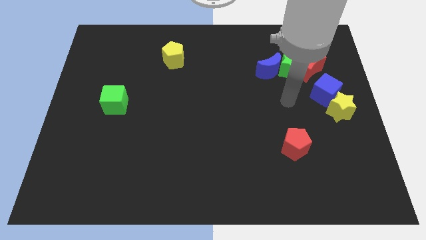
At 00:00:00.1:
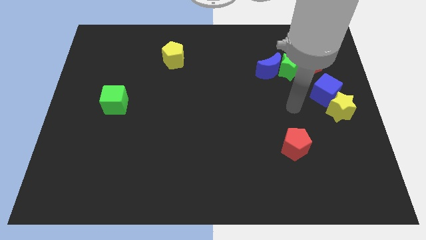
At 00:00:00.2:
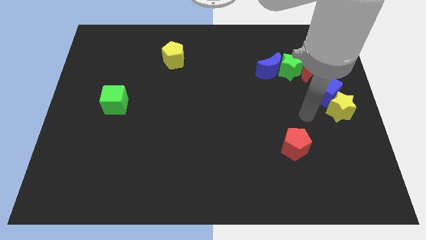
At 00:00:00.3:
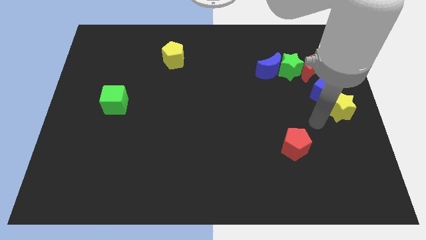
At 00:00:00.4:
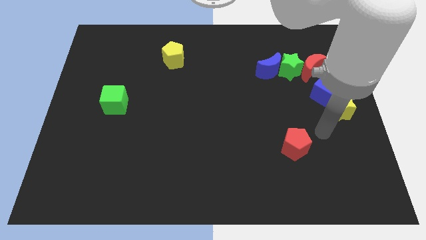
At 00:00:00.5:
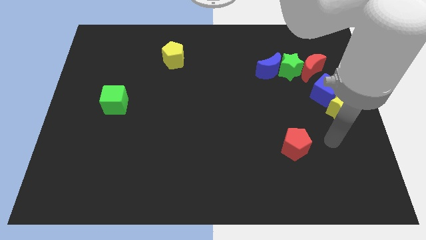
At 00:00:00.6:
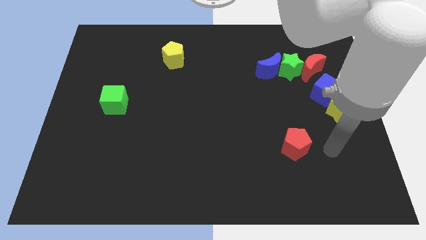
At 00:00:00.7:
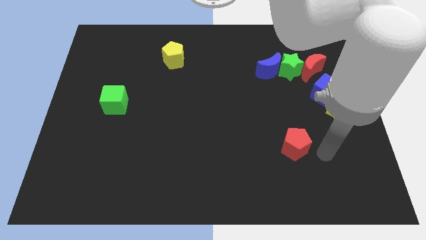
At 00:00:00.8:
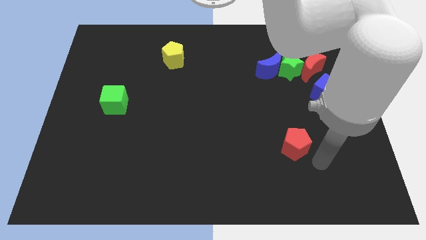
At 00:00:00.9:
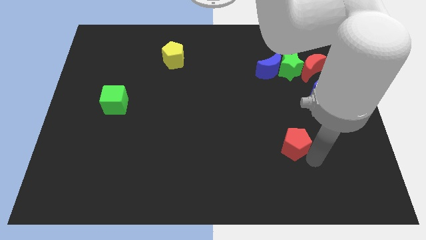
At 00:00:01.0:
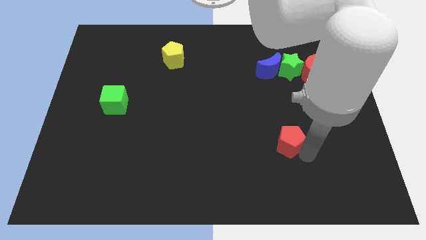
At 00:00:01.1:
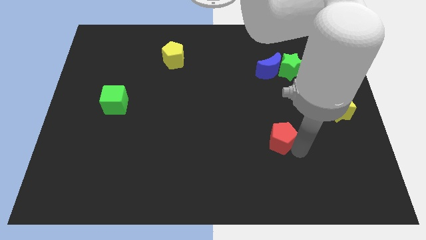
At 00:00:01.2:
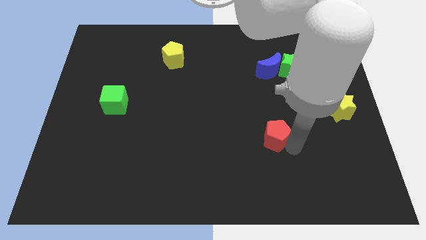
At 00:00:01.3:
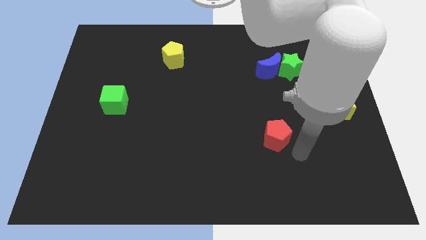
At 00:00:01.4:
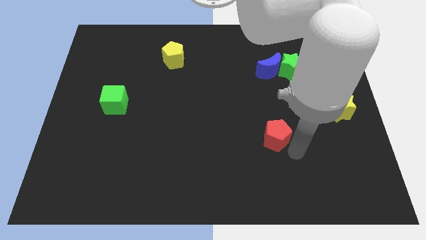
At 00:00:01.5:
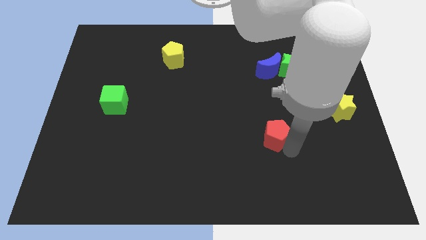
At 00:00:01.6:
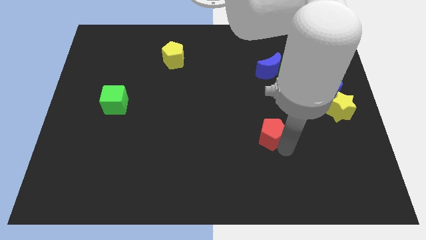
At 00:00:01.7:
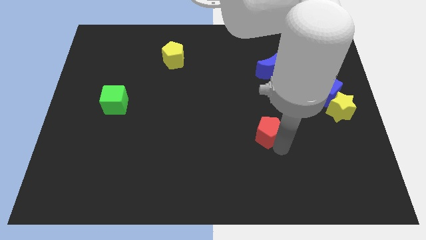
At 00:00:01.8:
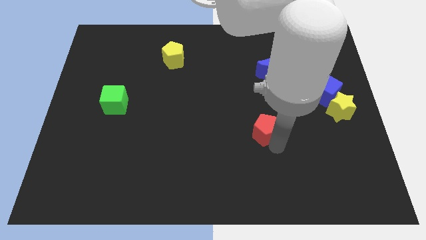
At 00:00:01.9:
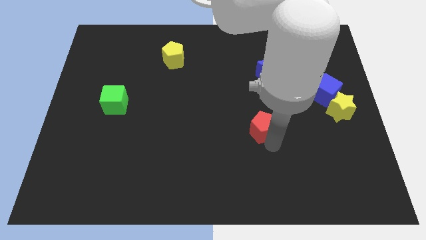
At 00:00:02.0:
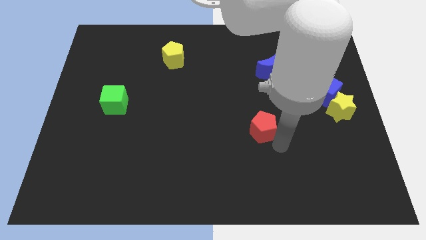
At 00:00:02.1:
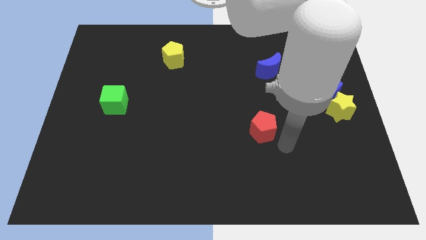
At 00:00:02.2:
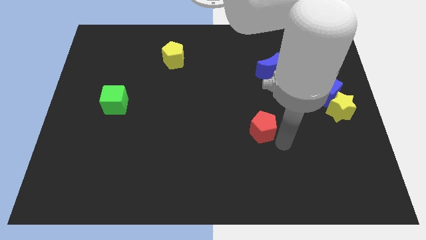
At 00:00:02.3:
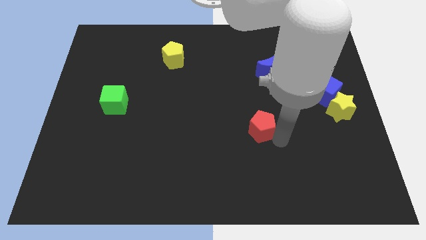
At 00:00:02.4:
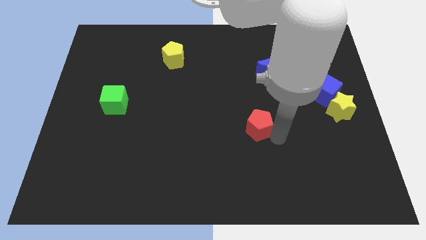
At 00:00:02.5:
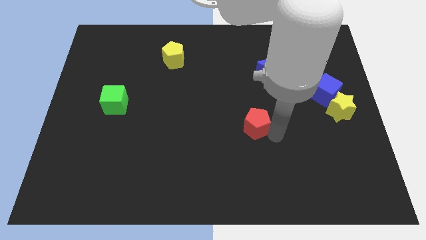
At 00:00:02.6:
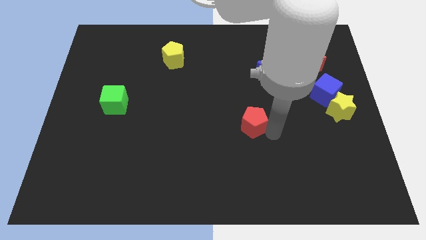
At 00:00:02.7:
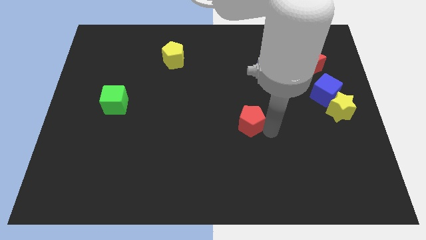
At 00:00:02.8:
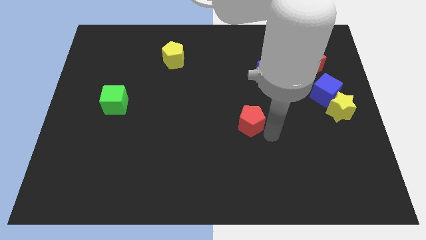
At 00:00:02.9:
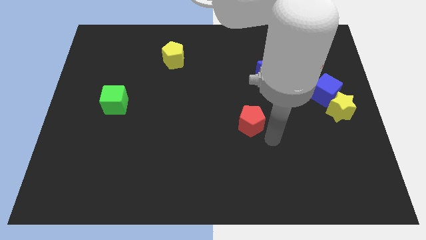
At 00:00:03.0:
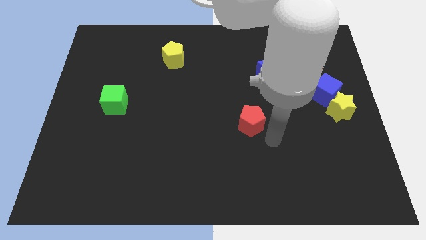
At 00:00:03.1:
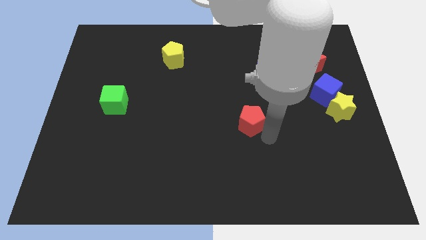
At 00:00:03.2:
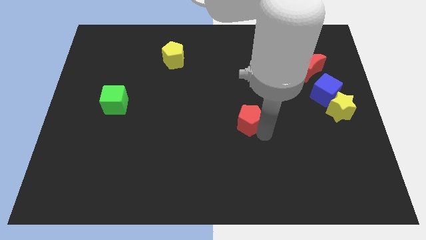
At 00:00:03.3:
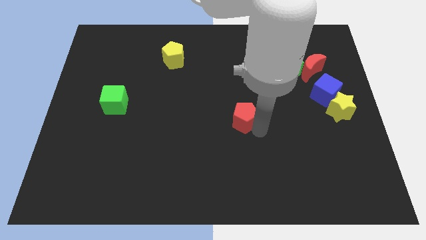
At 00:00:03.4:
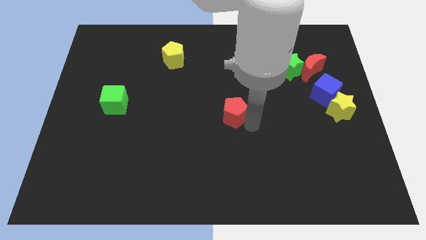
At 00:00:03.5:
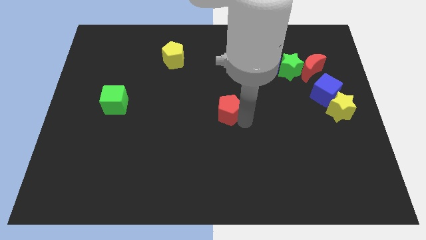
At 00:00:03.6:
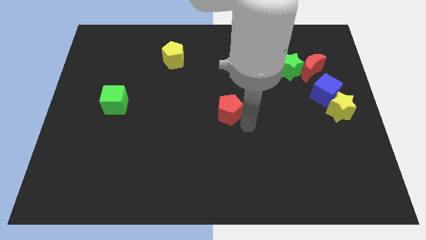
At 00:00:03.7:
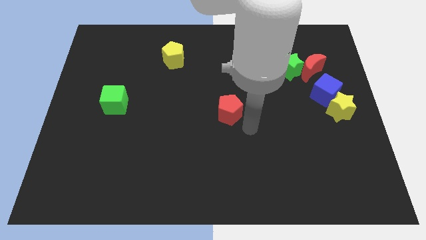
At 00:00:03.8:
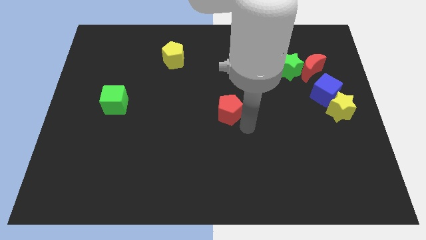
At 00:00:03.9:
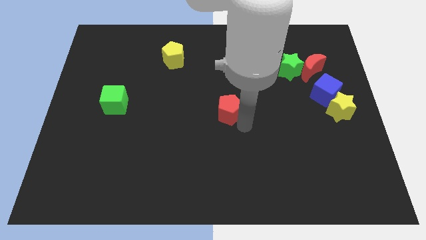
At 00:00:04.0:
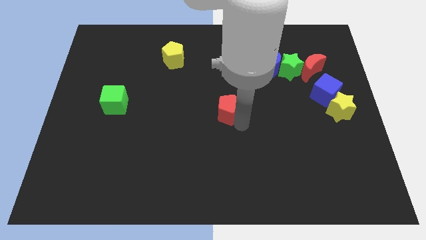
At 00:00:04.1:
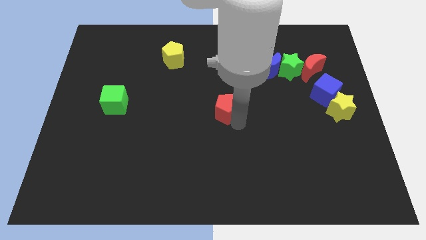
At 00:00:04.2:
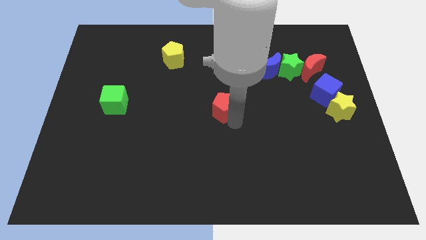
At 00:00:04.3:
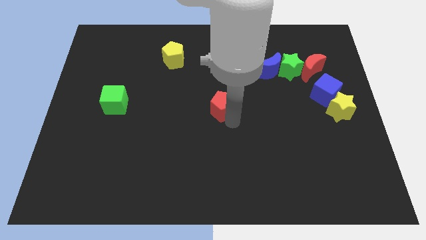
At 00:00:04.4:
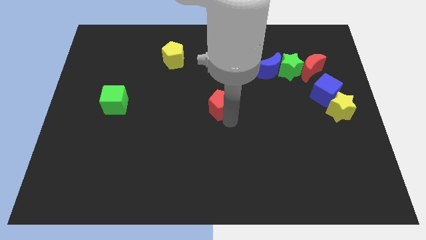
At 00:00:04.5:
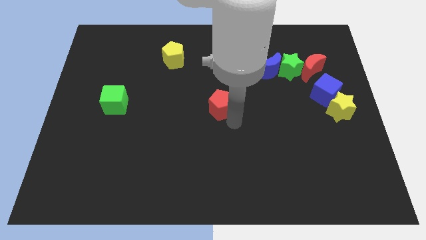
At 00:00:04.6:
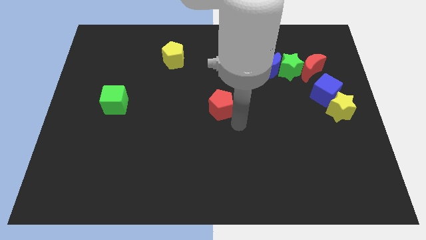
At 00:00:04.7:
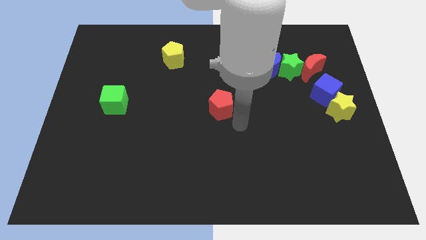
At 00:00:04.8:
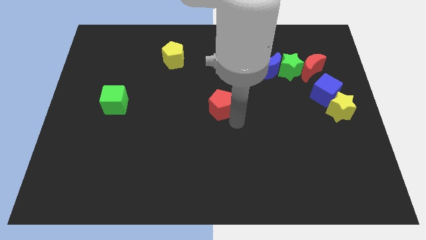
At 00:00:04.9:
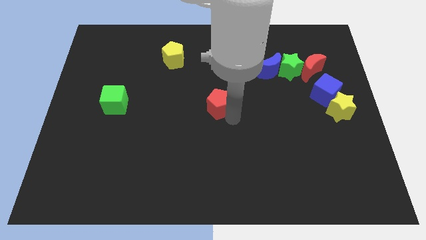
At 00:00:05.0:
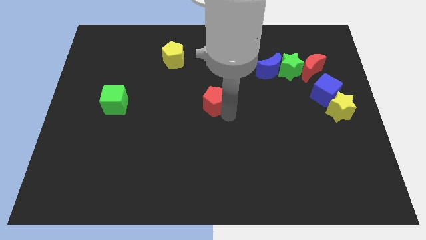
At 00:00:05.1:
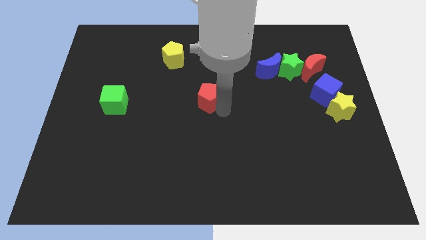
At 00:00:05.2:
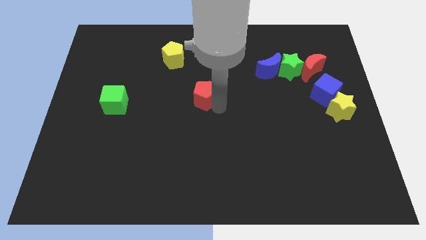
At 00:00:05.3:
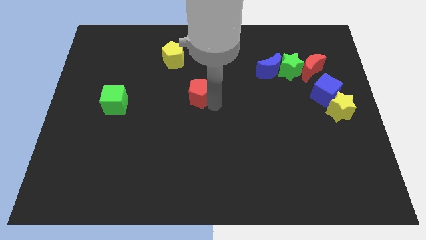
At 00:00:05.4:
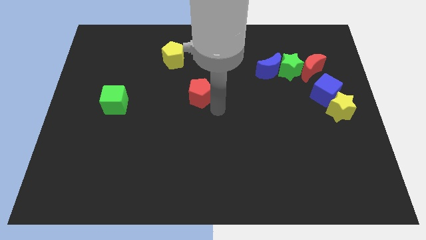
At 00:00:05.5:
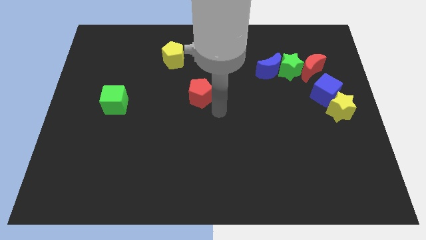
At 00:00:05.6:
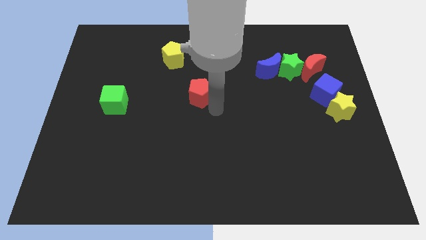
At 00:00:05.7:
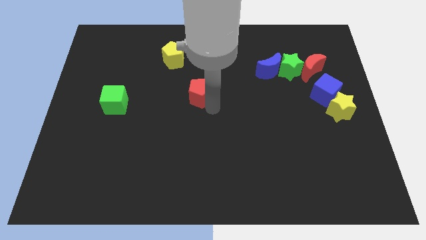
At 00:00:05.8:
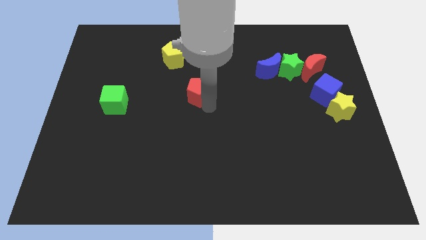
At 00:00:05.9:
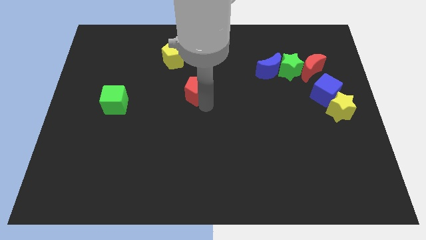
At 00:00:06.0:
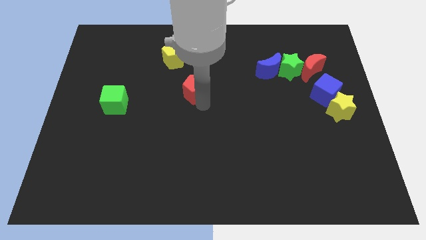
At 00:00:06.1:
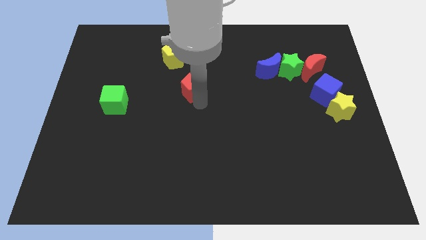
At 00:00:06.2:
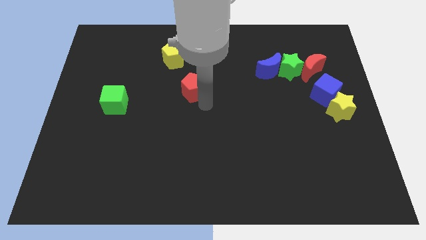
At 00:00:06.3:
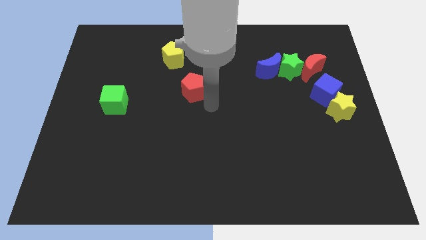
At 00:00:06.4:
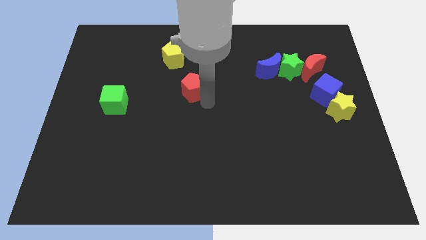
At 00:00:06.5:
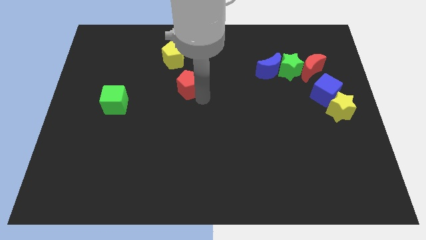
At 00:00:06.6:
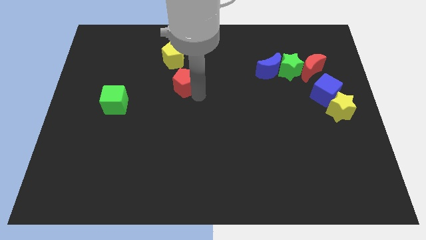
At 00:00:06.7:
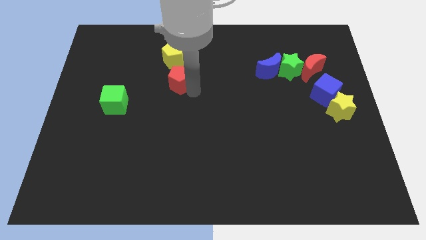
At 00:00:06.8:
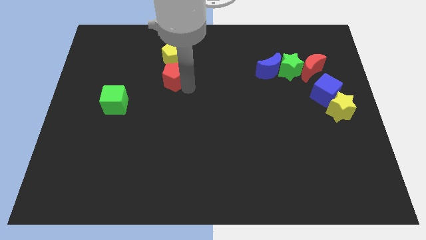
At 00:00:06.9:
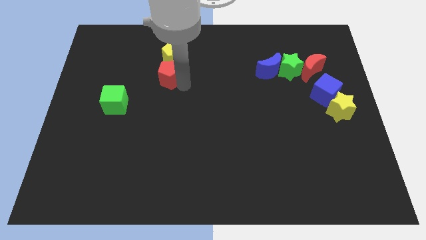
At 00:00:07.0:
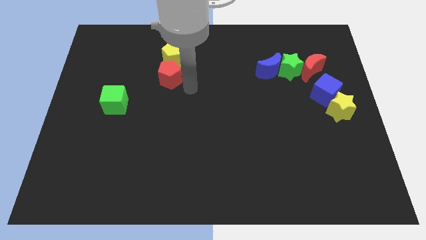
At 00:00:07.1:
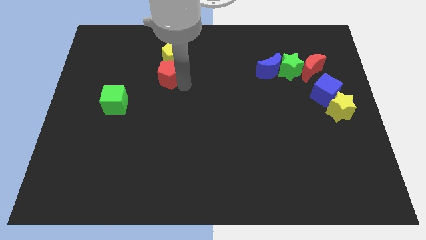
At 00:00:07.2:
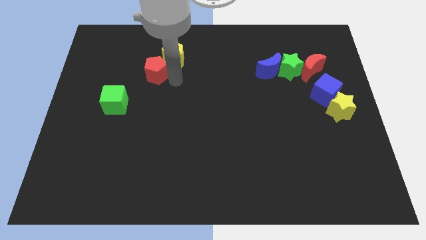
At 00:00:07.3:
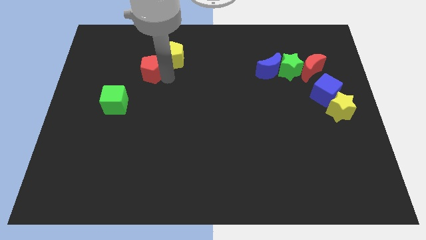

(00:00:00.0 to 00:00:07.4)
slide the red pentagon to the left of the yellow pentagon

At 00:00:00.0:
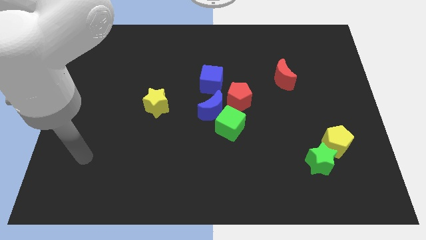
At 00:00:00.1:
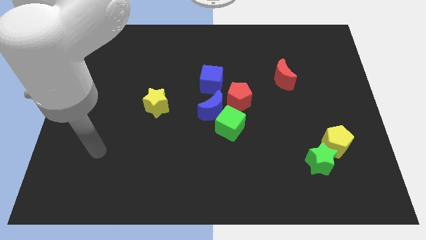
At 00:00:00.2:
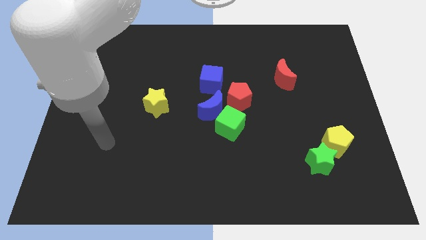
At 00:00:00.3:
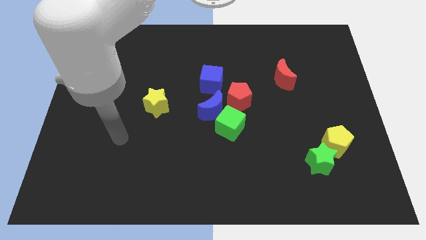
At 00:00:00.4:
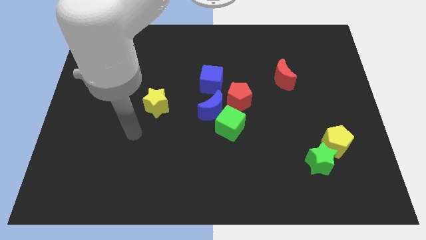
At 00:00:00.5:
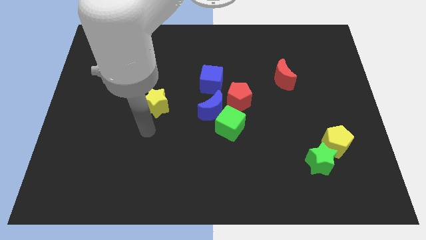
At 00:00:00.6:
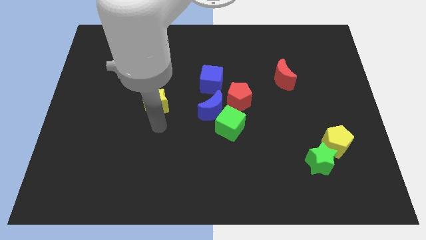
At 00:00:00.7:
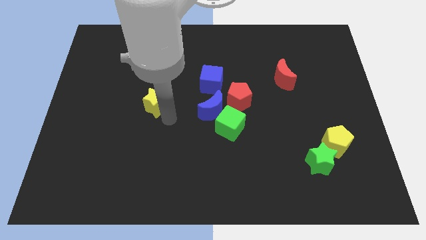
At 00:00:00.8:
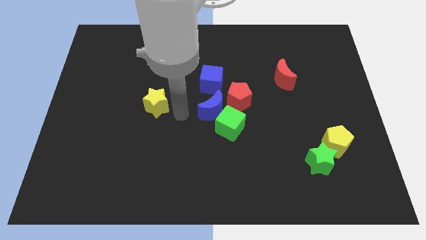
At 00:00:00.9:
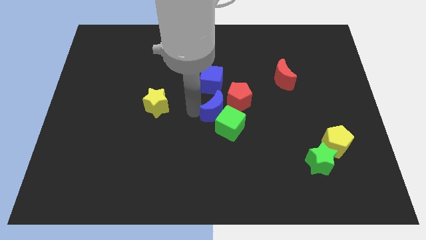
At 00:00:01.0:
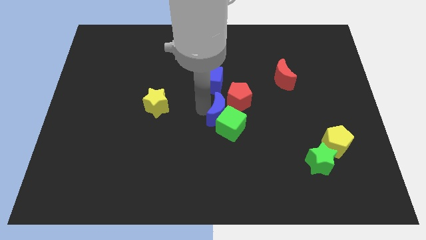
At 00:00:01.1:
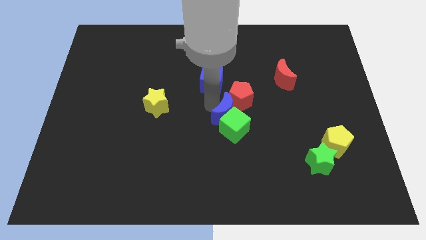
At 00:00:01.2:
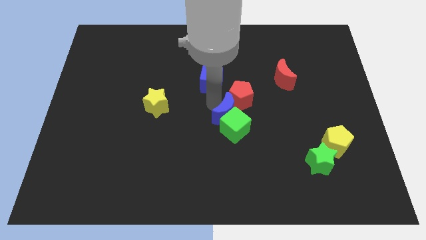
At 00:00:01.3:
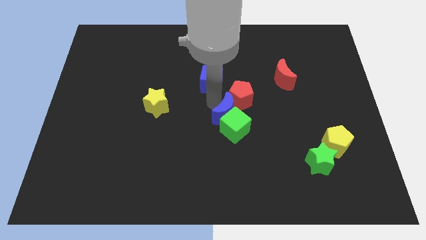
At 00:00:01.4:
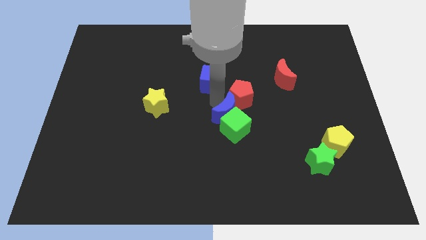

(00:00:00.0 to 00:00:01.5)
push the red pentagon diagonally down and to the left of the red moon
